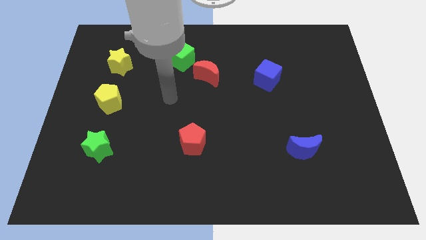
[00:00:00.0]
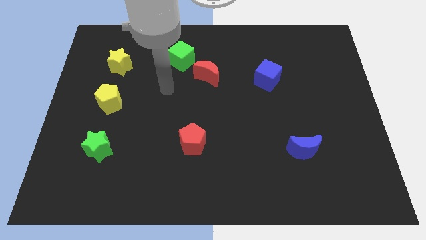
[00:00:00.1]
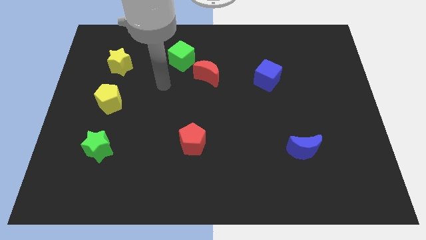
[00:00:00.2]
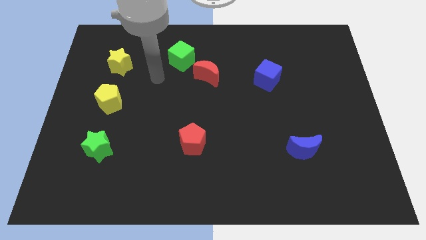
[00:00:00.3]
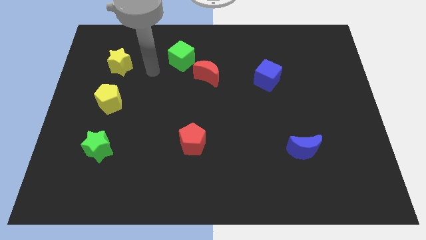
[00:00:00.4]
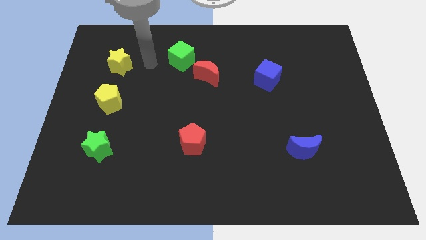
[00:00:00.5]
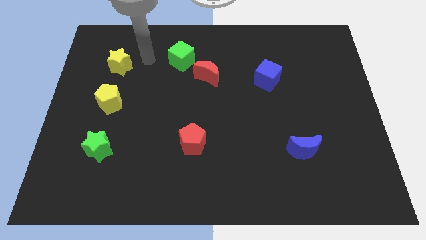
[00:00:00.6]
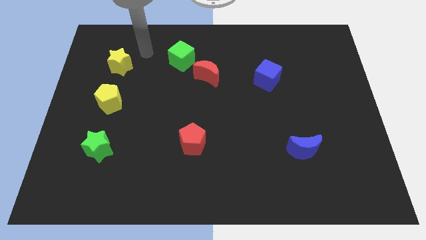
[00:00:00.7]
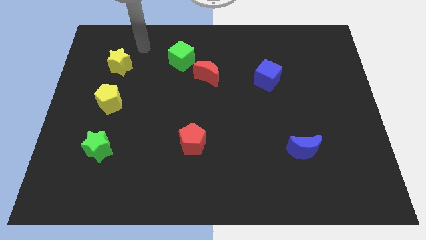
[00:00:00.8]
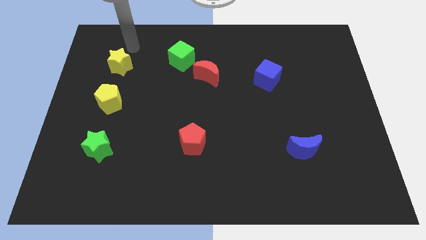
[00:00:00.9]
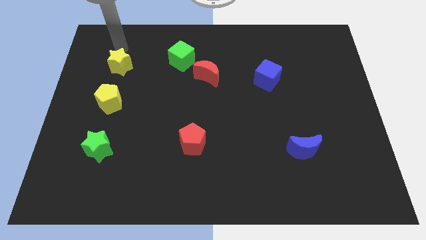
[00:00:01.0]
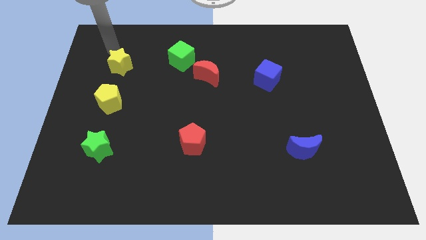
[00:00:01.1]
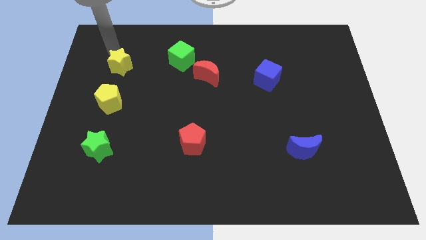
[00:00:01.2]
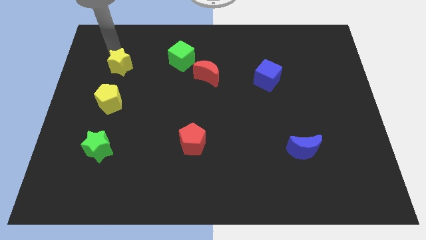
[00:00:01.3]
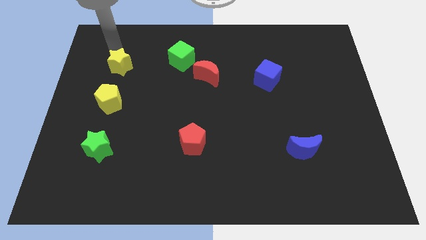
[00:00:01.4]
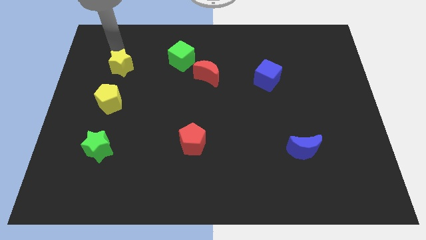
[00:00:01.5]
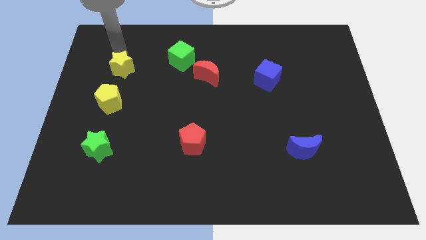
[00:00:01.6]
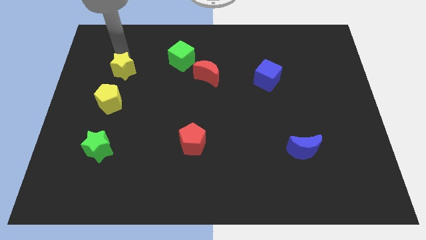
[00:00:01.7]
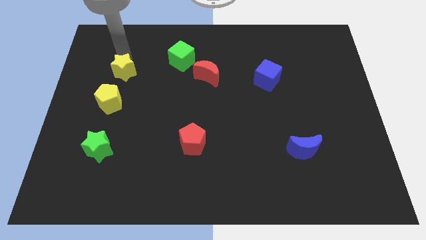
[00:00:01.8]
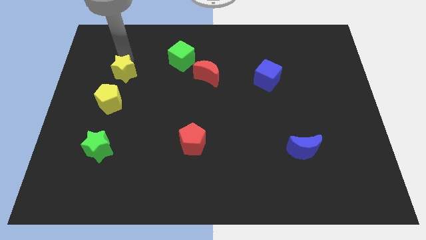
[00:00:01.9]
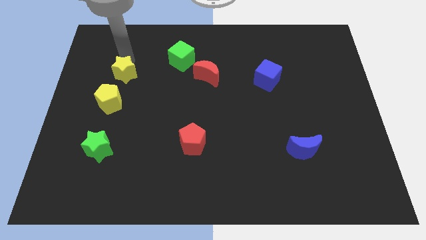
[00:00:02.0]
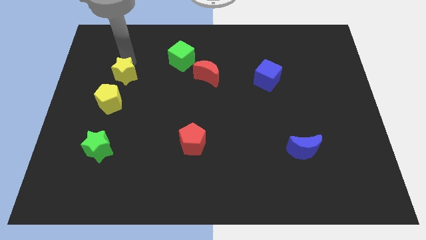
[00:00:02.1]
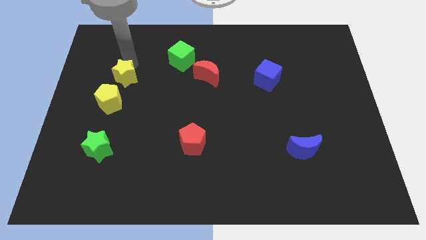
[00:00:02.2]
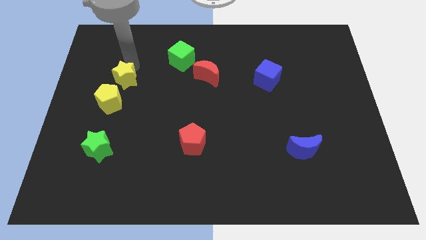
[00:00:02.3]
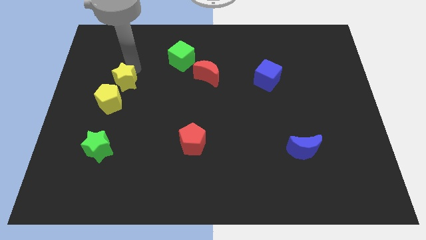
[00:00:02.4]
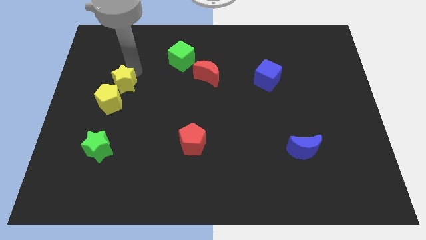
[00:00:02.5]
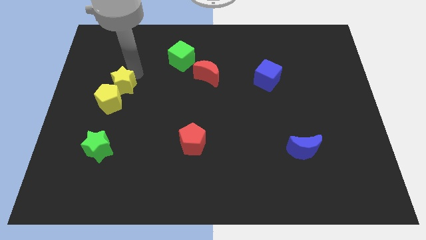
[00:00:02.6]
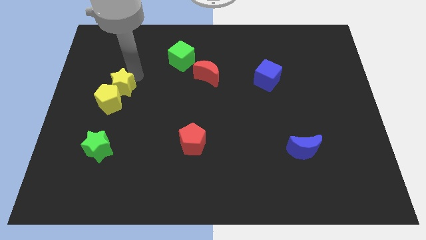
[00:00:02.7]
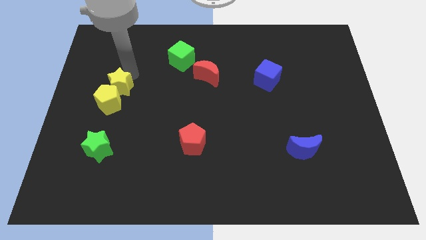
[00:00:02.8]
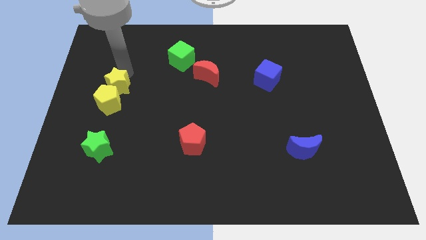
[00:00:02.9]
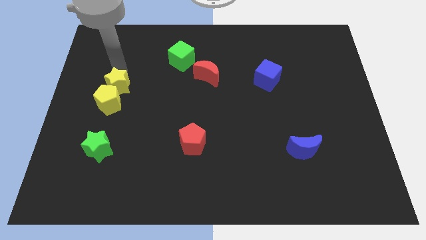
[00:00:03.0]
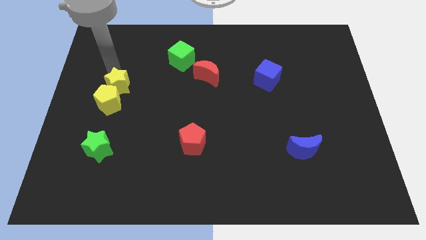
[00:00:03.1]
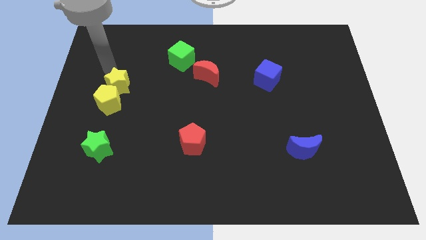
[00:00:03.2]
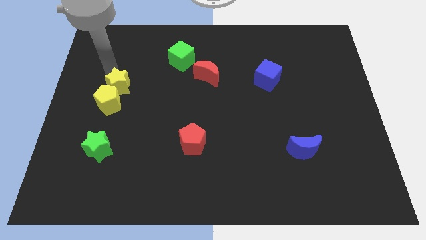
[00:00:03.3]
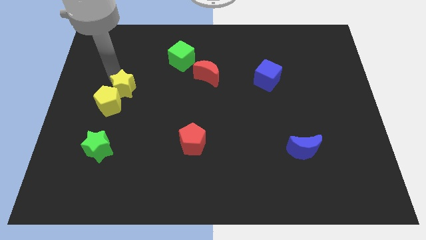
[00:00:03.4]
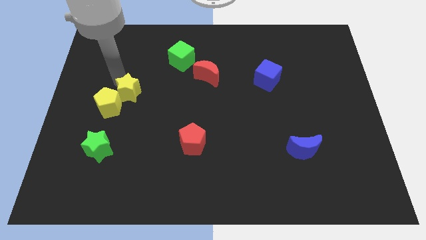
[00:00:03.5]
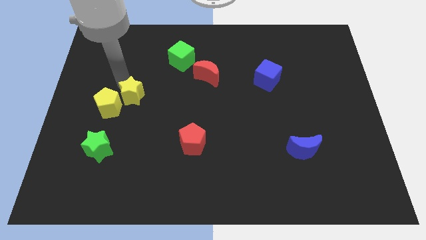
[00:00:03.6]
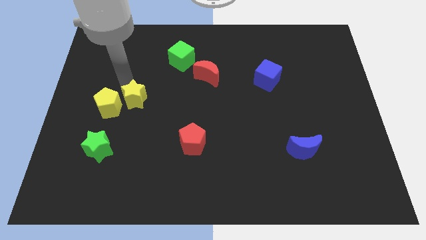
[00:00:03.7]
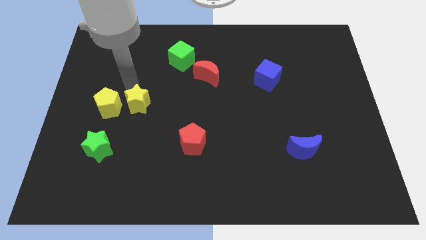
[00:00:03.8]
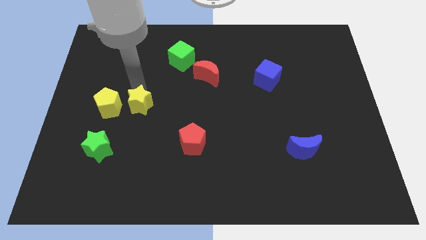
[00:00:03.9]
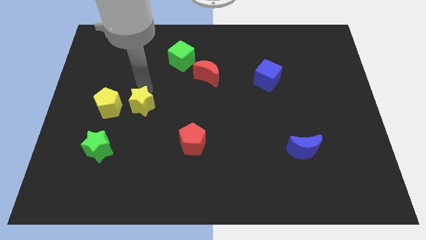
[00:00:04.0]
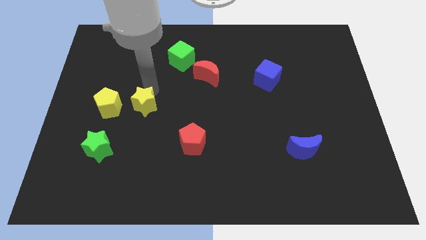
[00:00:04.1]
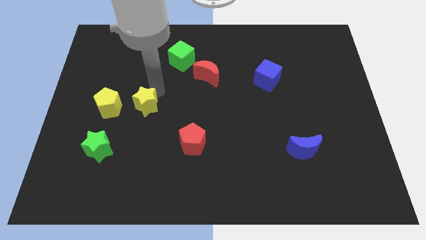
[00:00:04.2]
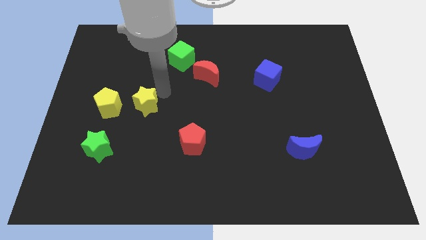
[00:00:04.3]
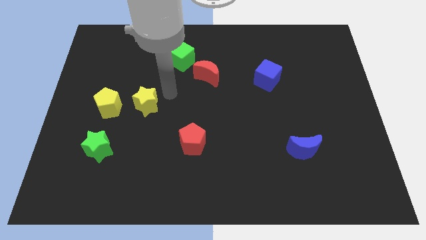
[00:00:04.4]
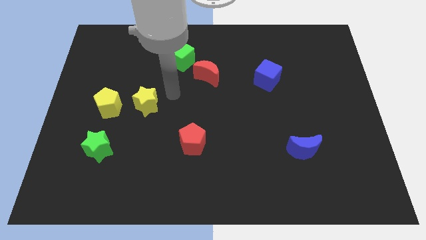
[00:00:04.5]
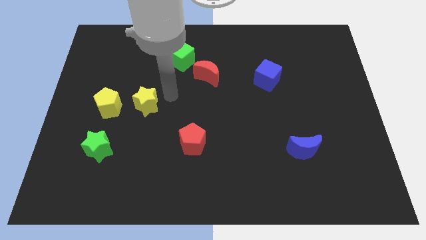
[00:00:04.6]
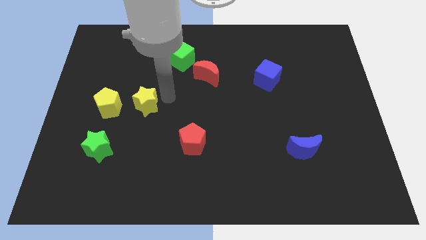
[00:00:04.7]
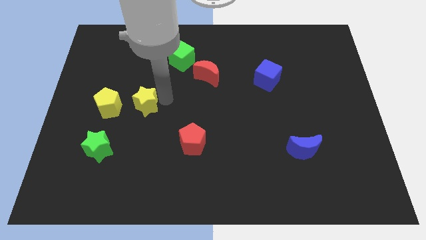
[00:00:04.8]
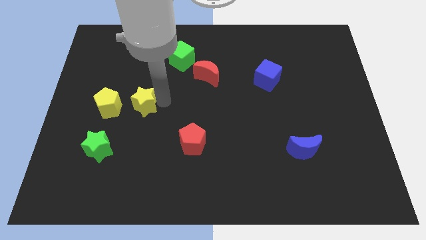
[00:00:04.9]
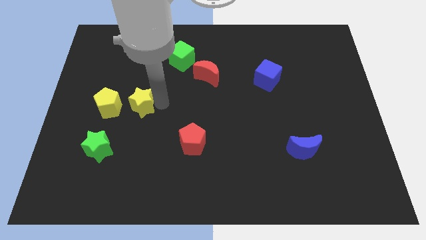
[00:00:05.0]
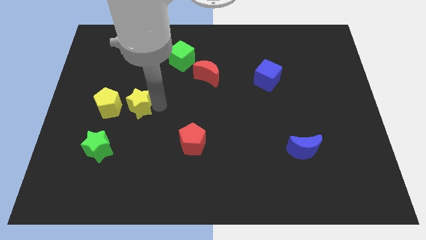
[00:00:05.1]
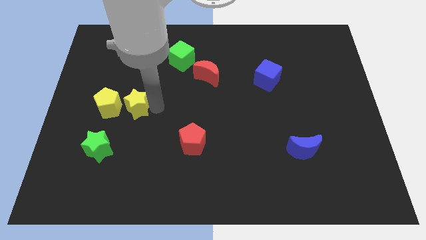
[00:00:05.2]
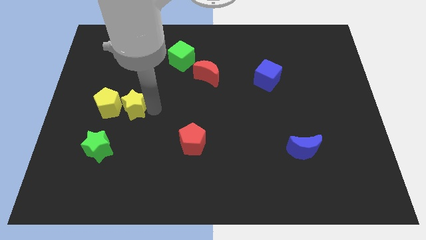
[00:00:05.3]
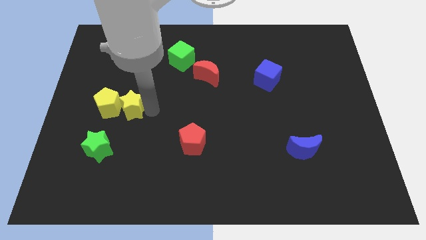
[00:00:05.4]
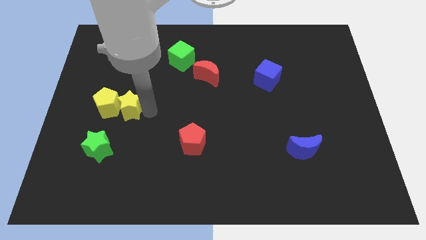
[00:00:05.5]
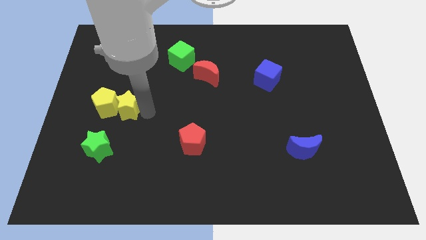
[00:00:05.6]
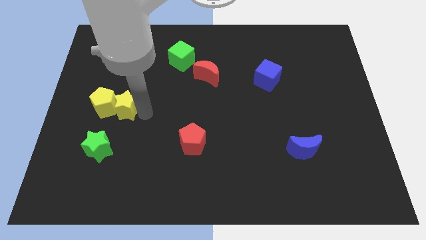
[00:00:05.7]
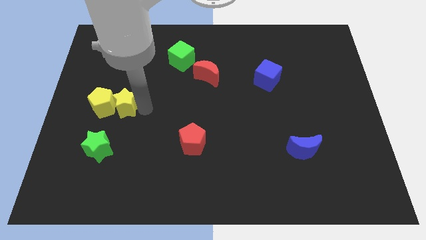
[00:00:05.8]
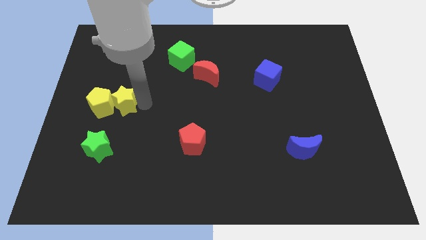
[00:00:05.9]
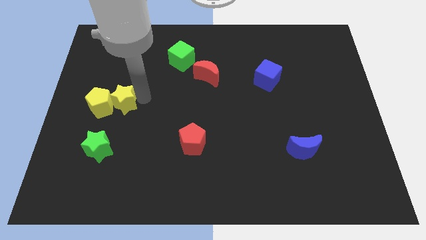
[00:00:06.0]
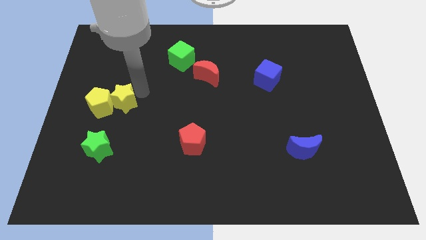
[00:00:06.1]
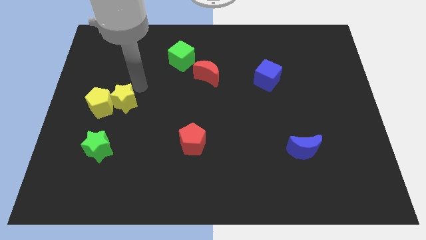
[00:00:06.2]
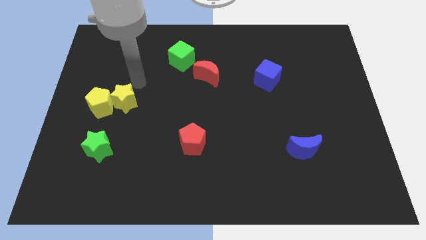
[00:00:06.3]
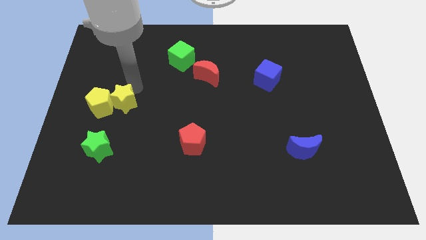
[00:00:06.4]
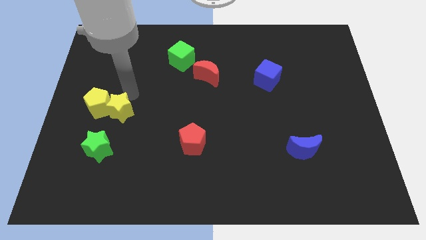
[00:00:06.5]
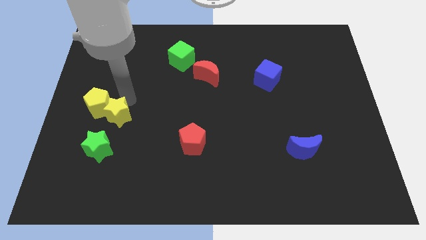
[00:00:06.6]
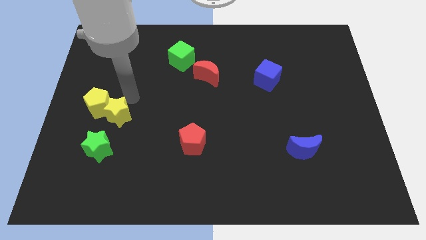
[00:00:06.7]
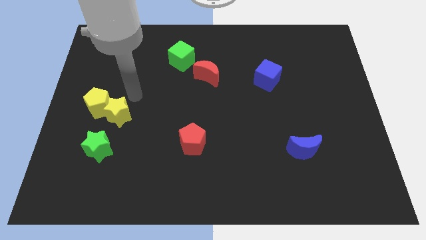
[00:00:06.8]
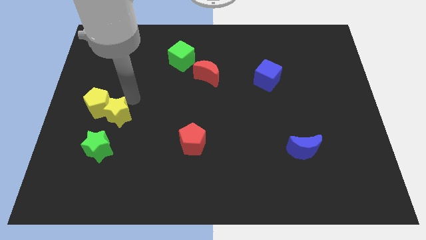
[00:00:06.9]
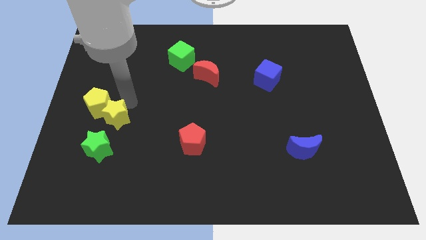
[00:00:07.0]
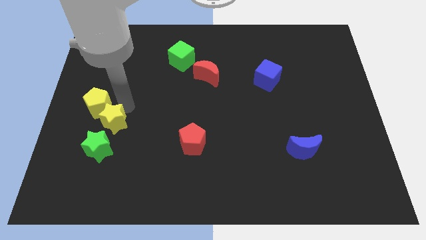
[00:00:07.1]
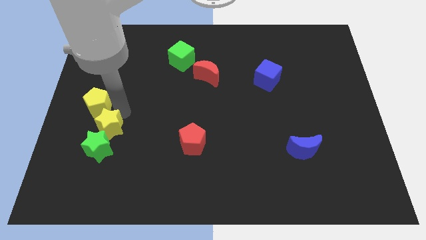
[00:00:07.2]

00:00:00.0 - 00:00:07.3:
push the yellow star towards the green star
